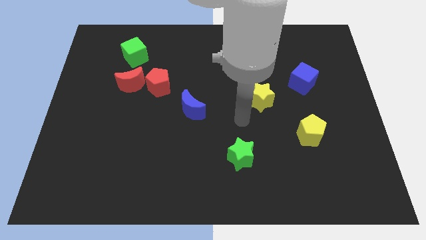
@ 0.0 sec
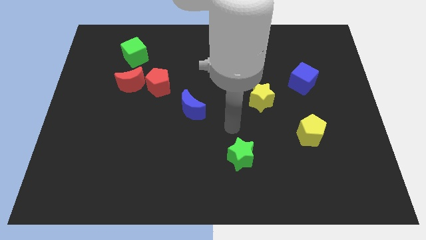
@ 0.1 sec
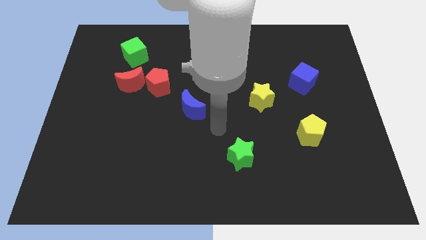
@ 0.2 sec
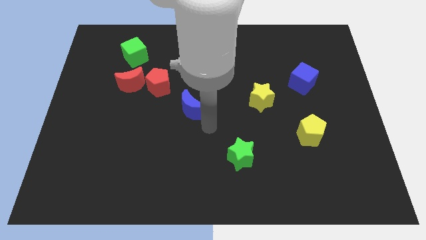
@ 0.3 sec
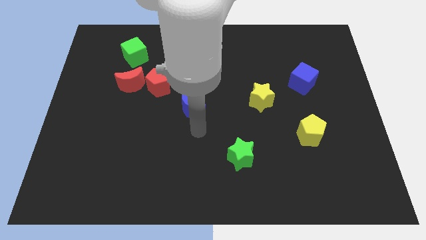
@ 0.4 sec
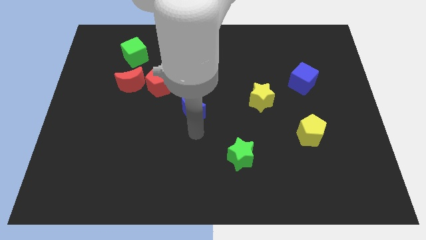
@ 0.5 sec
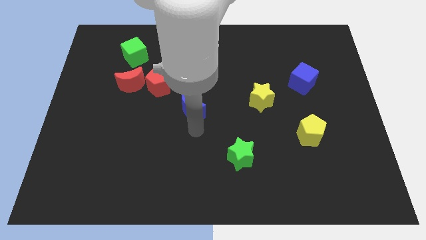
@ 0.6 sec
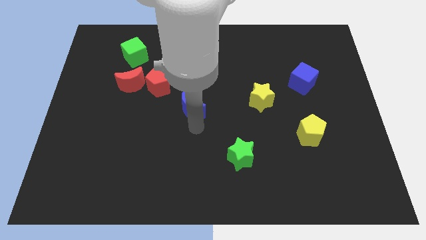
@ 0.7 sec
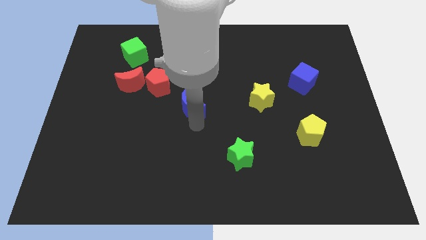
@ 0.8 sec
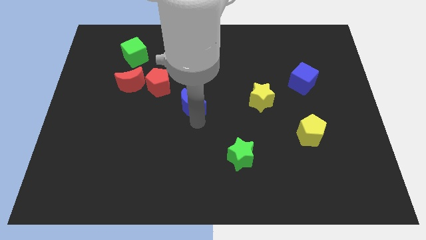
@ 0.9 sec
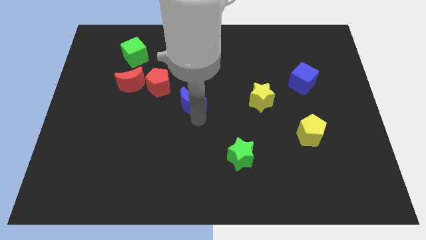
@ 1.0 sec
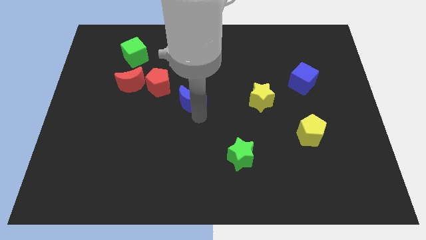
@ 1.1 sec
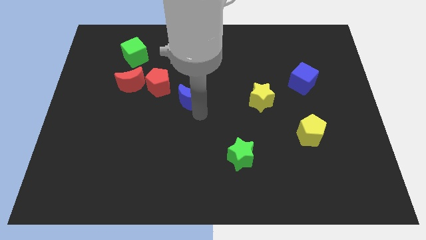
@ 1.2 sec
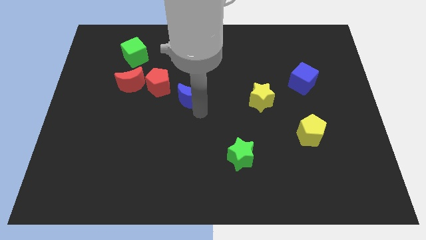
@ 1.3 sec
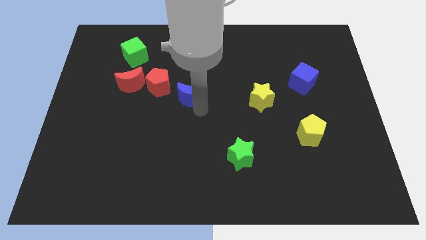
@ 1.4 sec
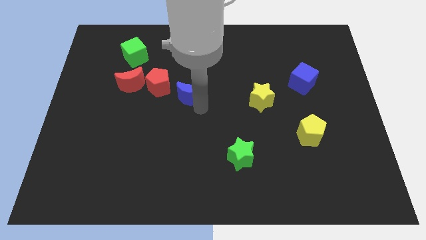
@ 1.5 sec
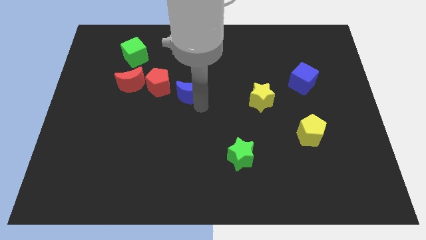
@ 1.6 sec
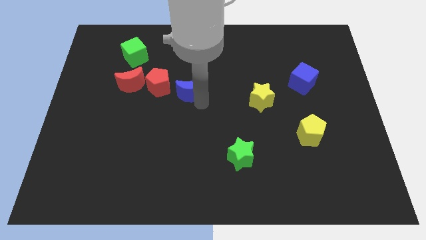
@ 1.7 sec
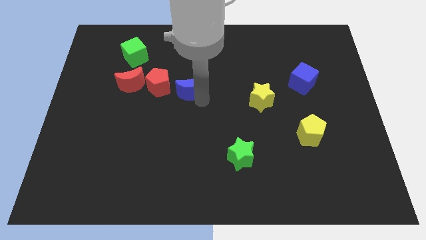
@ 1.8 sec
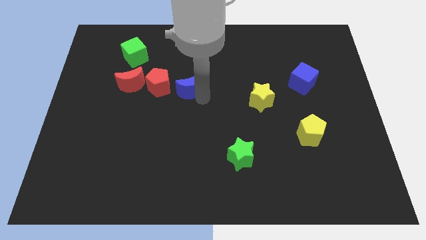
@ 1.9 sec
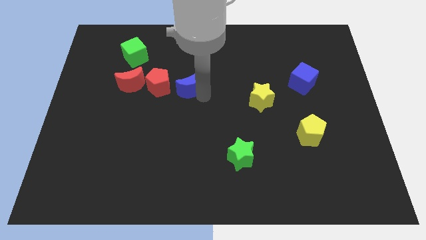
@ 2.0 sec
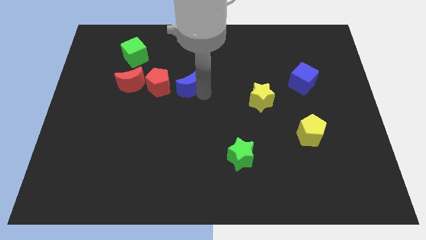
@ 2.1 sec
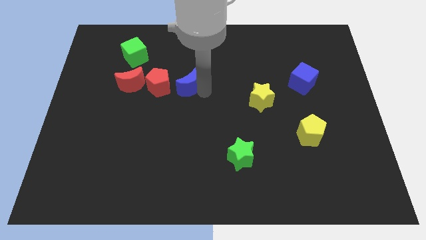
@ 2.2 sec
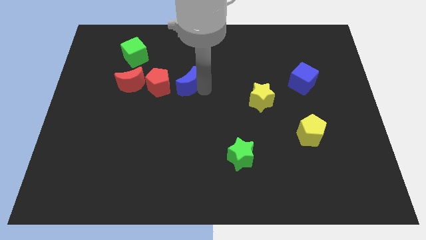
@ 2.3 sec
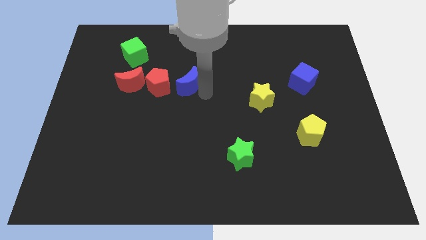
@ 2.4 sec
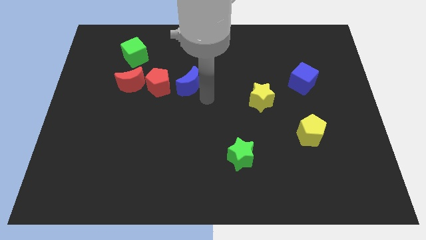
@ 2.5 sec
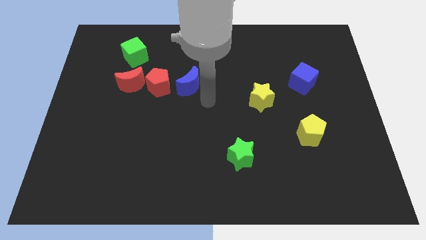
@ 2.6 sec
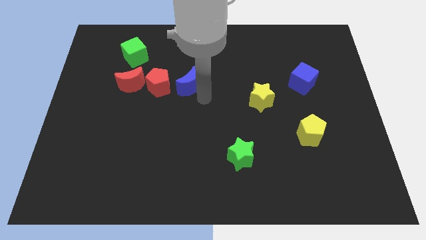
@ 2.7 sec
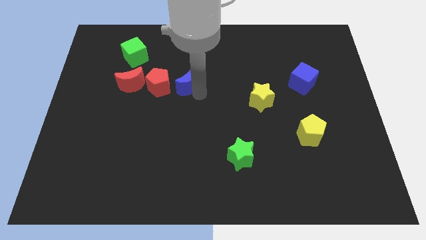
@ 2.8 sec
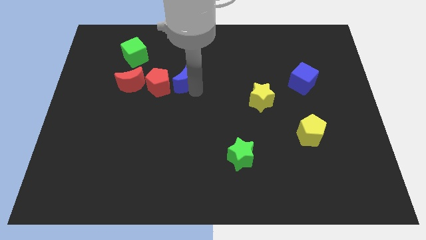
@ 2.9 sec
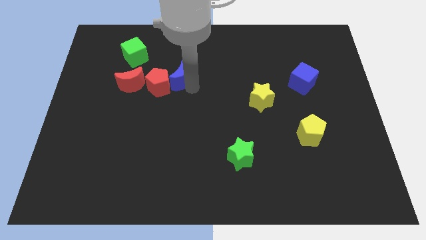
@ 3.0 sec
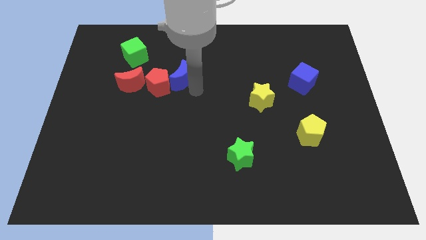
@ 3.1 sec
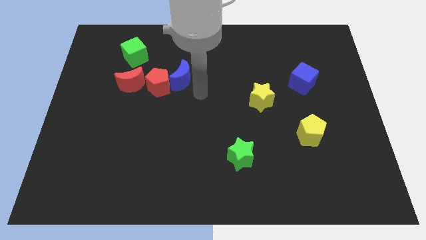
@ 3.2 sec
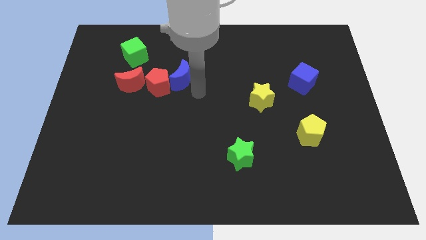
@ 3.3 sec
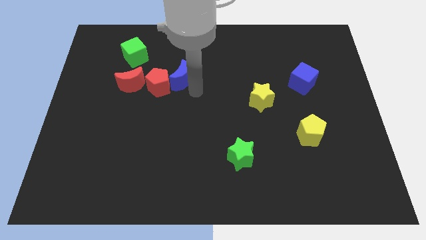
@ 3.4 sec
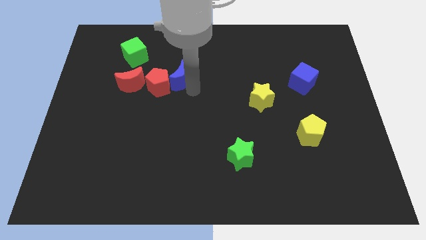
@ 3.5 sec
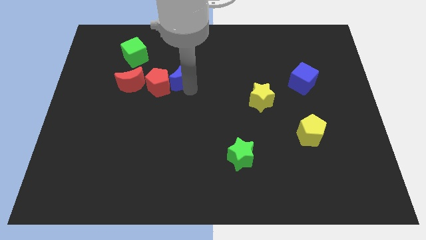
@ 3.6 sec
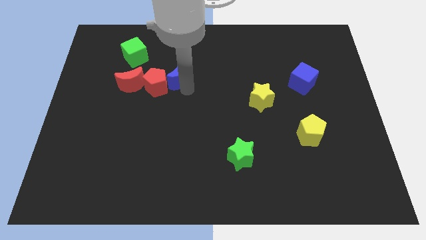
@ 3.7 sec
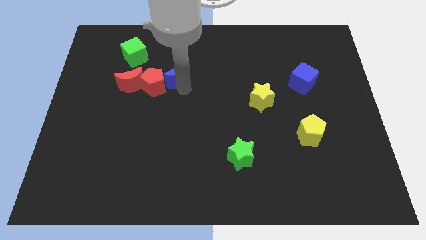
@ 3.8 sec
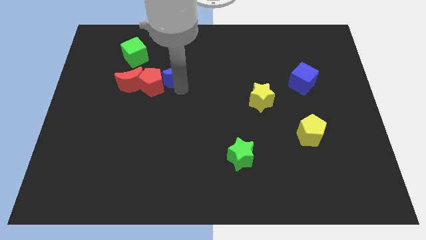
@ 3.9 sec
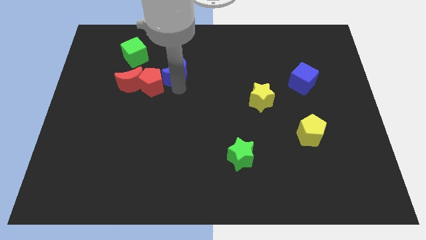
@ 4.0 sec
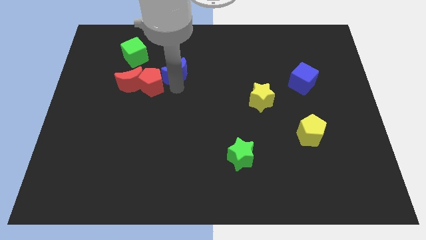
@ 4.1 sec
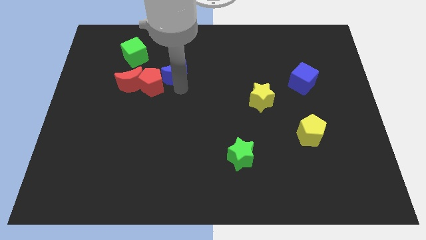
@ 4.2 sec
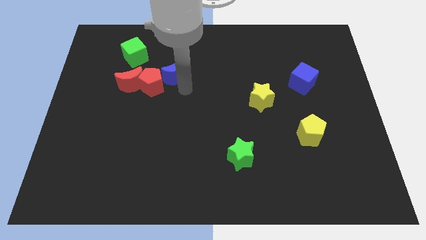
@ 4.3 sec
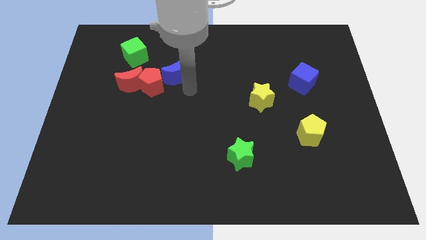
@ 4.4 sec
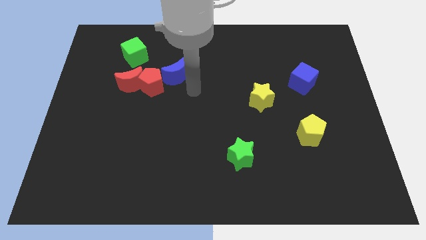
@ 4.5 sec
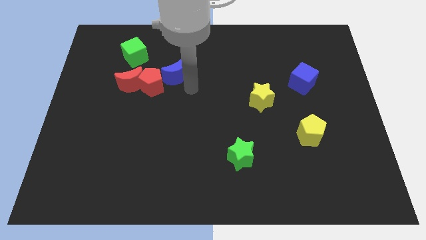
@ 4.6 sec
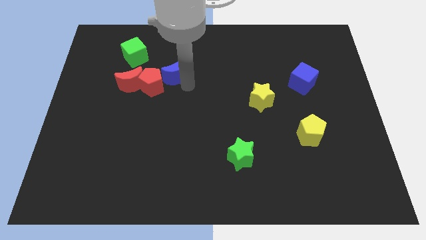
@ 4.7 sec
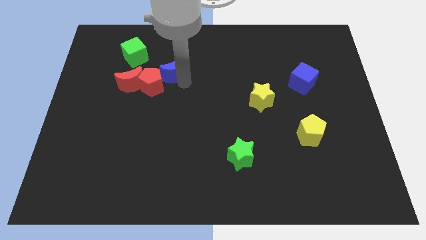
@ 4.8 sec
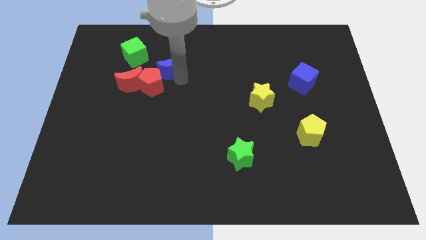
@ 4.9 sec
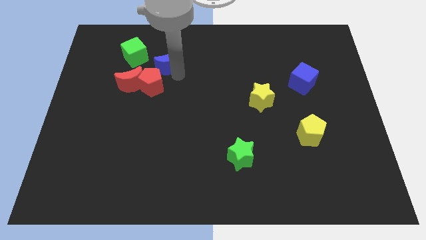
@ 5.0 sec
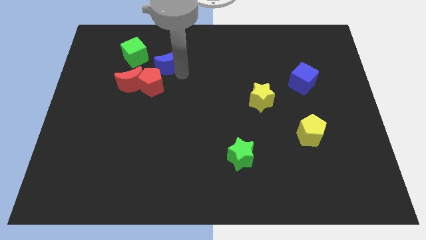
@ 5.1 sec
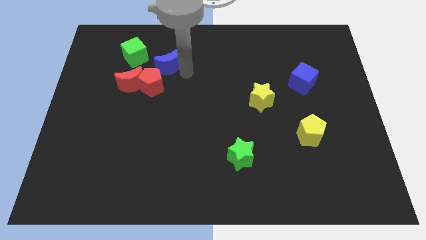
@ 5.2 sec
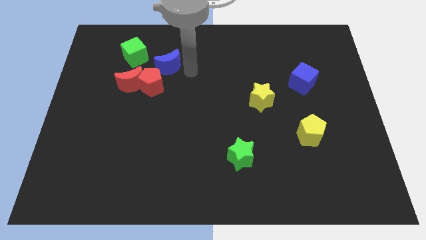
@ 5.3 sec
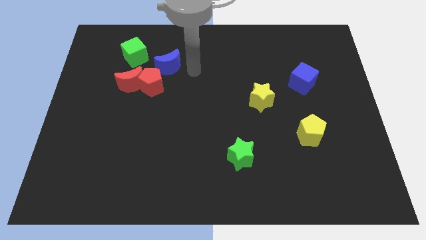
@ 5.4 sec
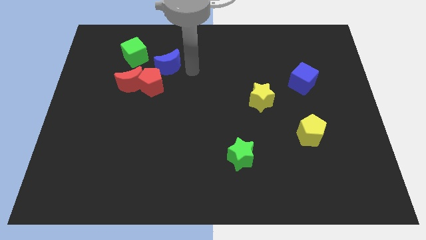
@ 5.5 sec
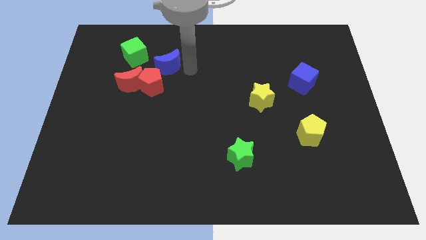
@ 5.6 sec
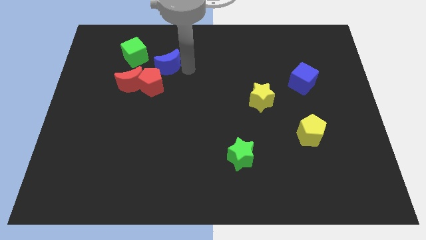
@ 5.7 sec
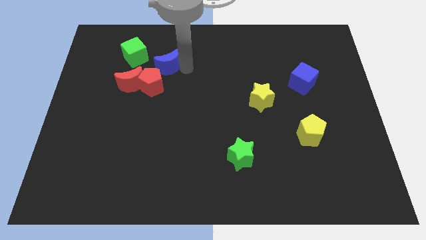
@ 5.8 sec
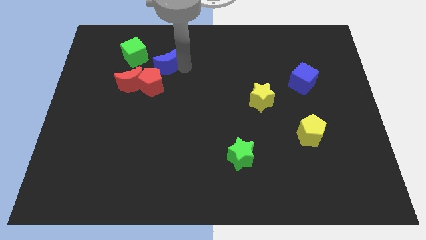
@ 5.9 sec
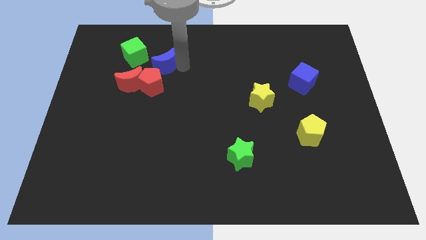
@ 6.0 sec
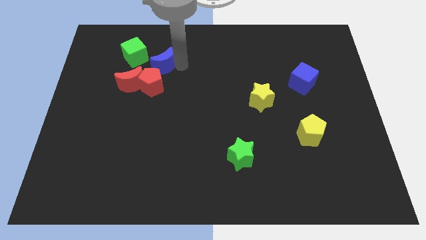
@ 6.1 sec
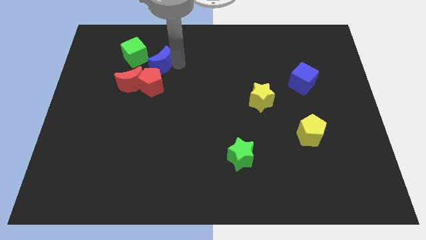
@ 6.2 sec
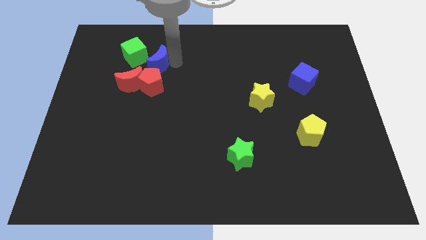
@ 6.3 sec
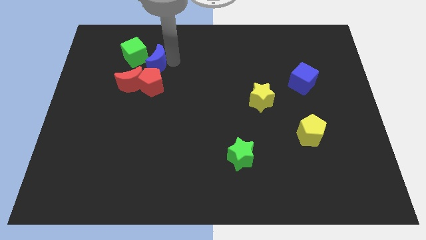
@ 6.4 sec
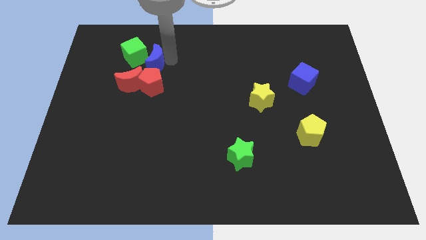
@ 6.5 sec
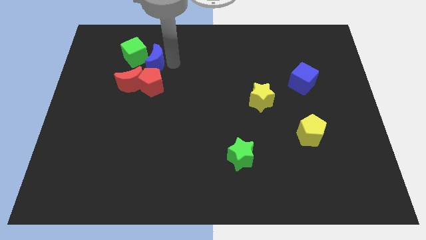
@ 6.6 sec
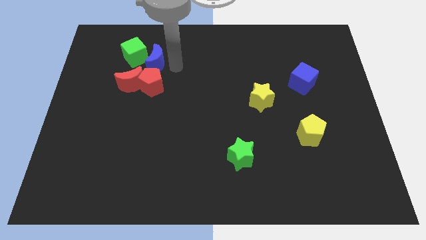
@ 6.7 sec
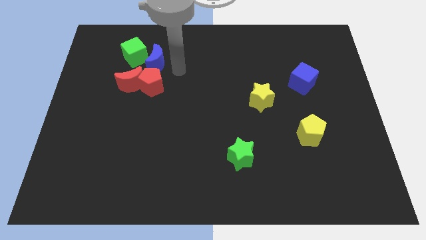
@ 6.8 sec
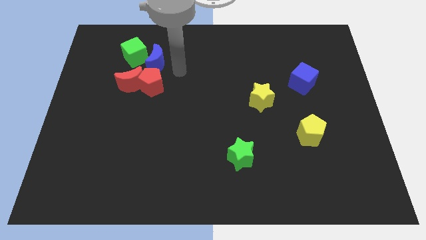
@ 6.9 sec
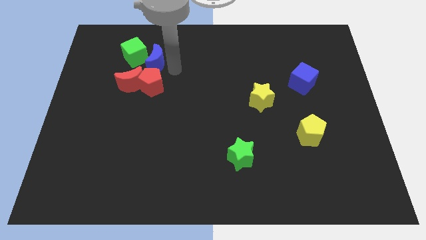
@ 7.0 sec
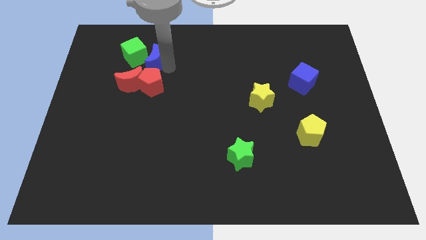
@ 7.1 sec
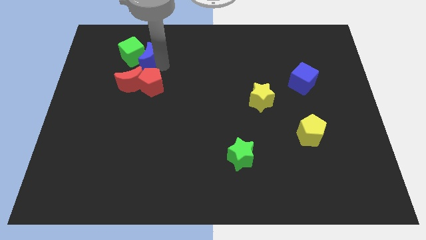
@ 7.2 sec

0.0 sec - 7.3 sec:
push the blue moon next to the green cube
